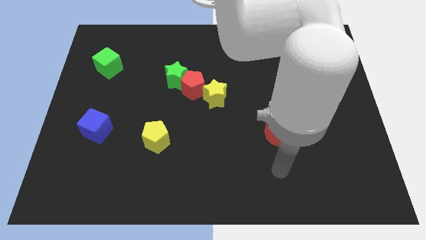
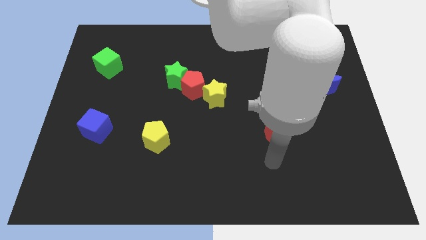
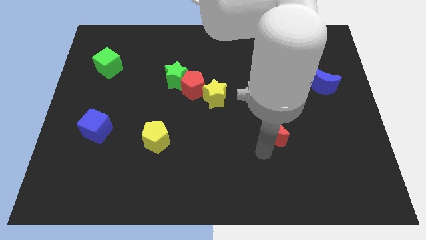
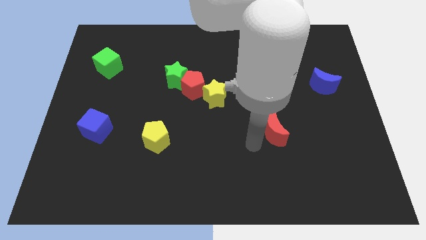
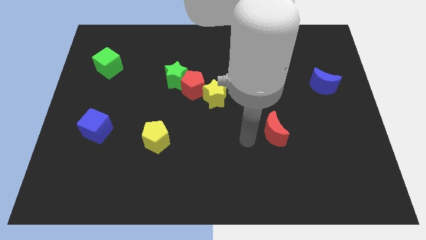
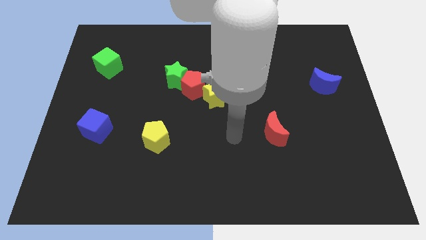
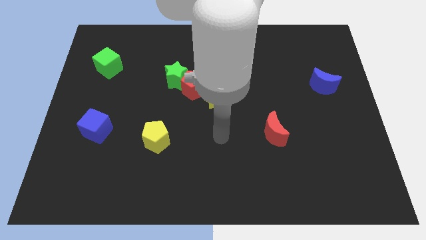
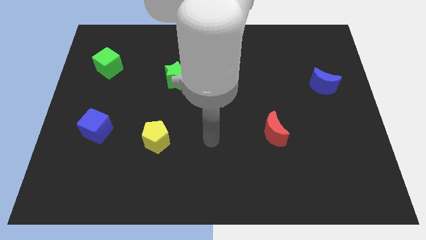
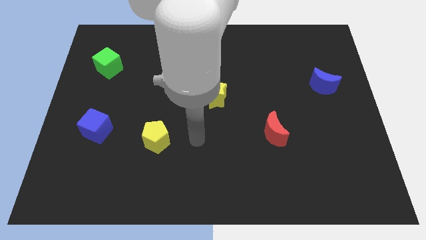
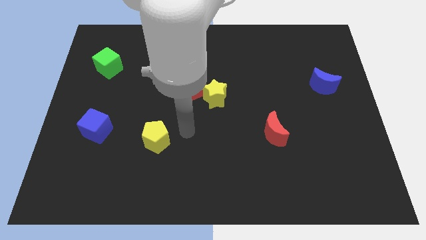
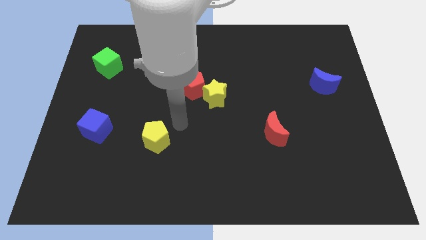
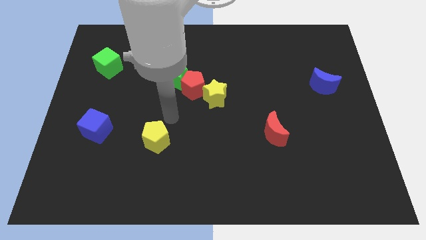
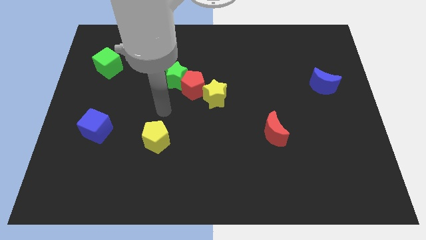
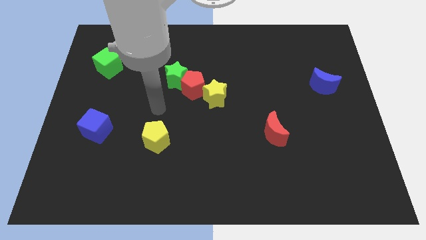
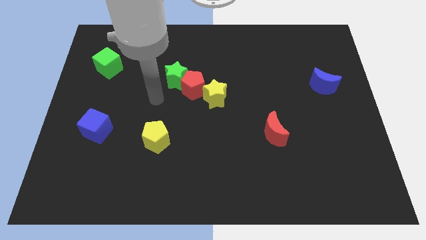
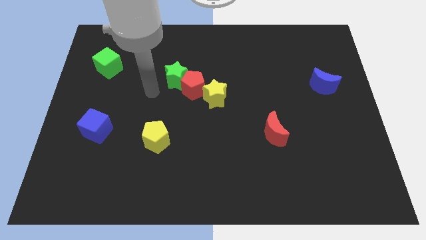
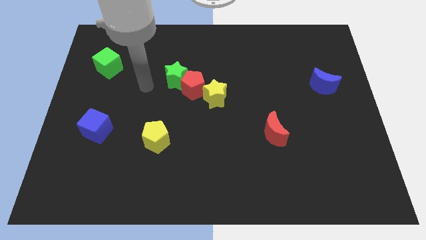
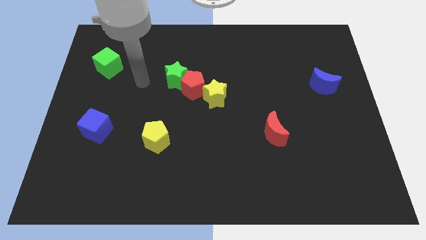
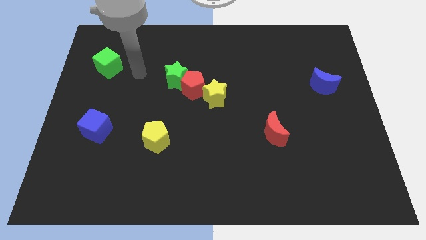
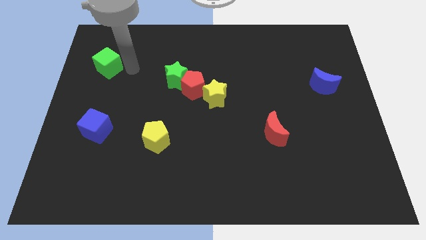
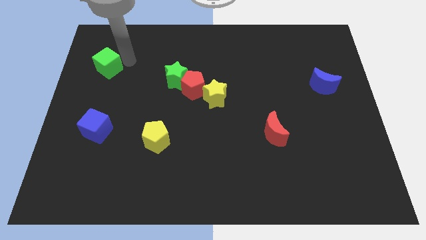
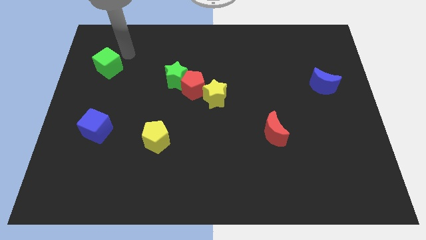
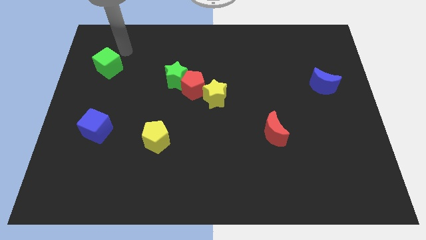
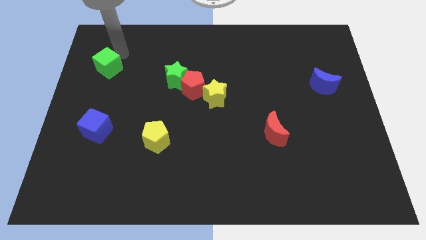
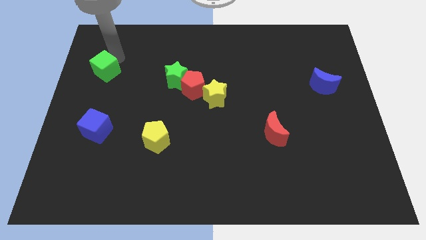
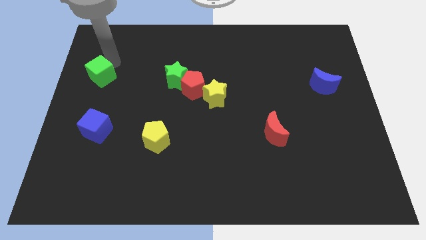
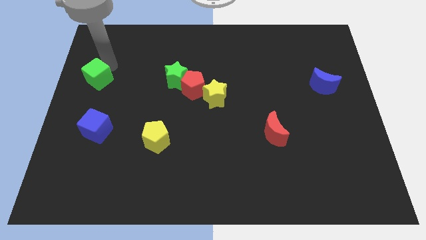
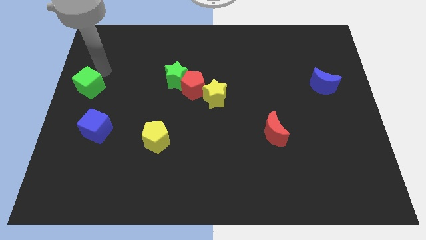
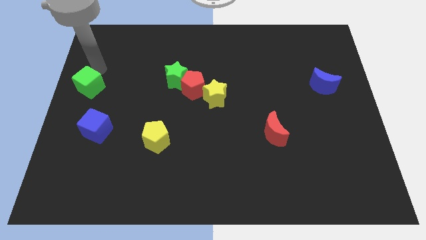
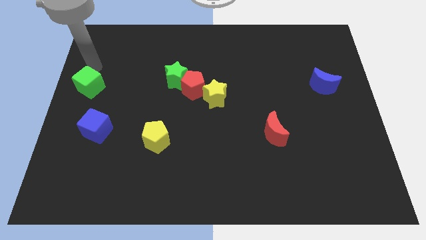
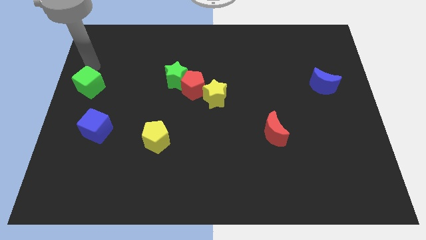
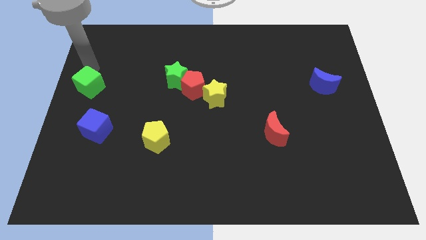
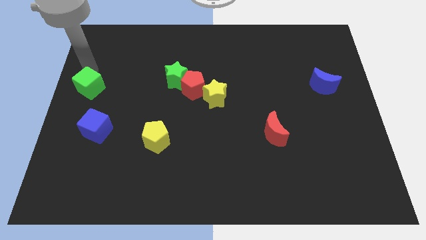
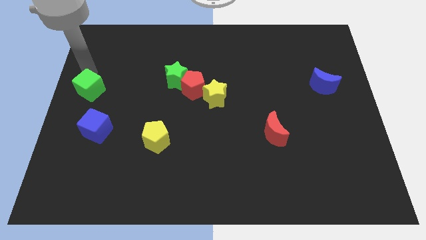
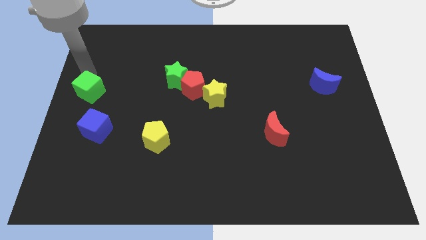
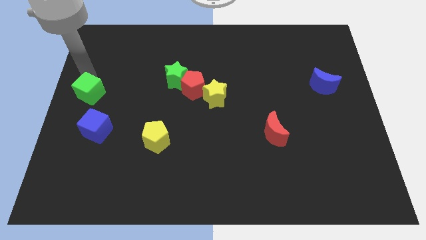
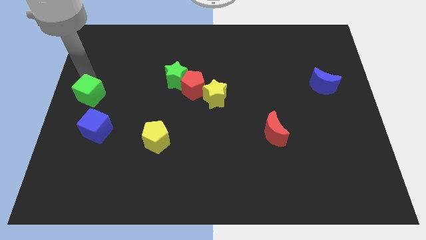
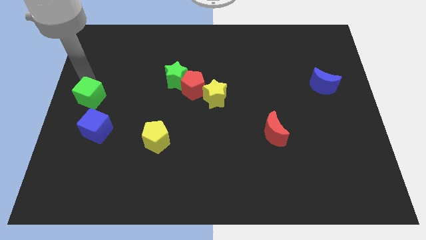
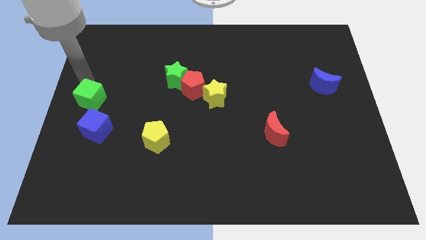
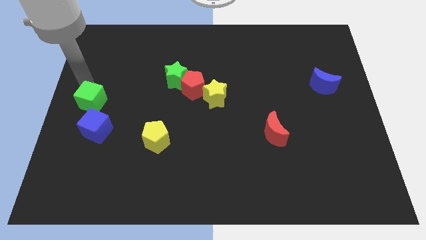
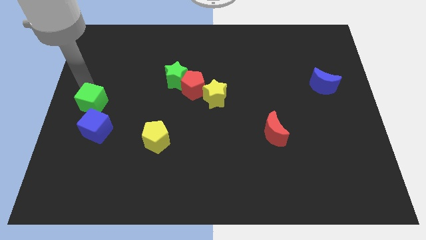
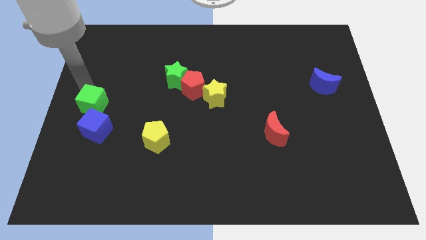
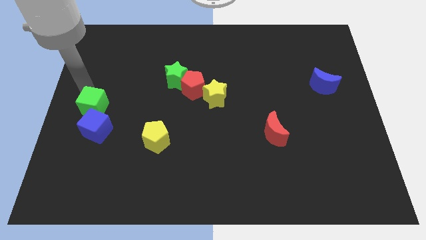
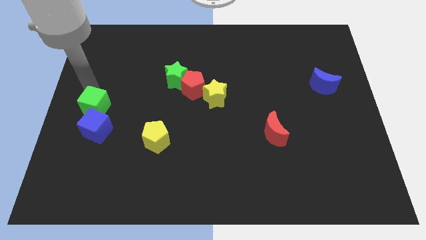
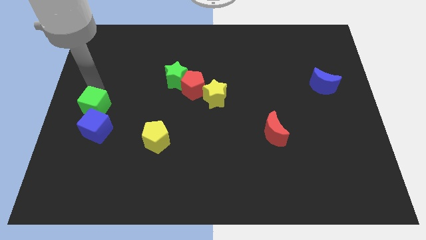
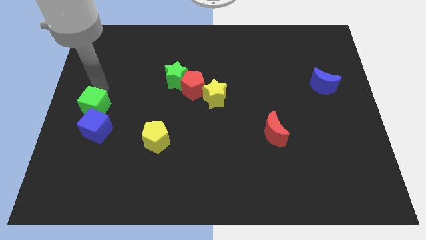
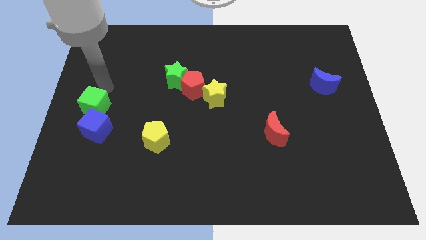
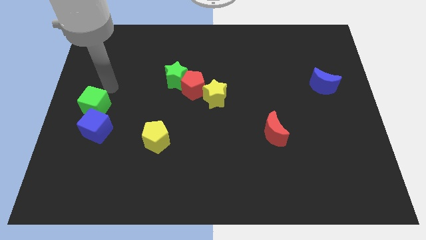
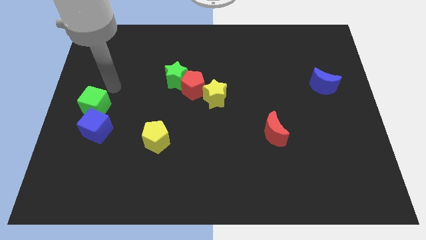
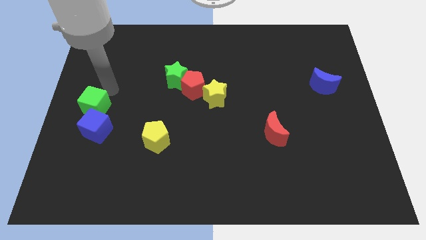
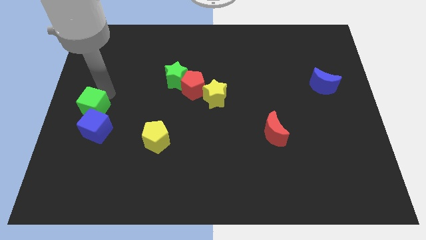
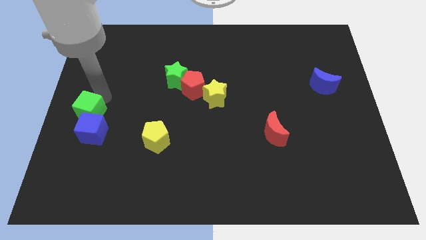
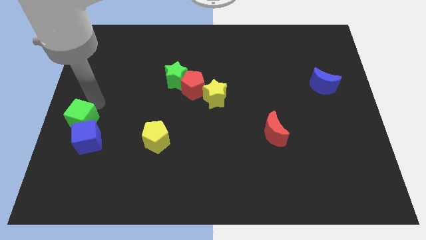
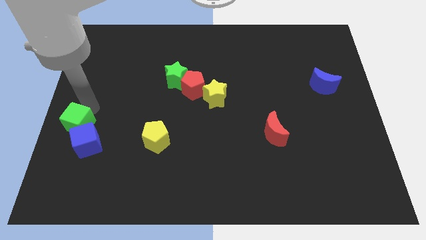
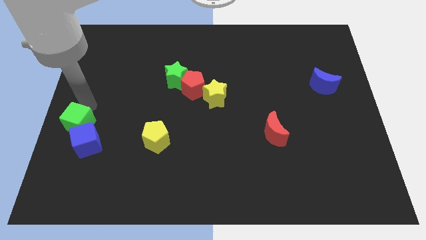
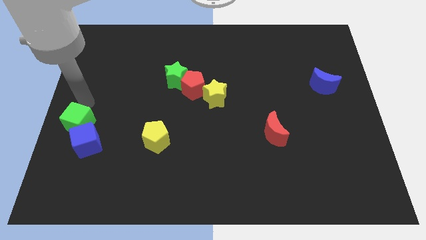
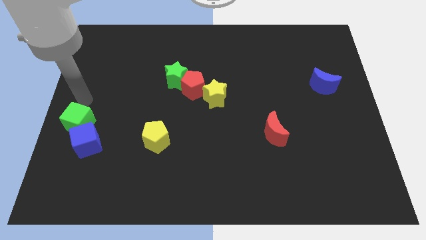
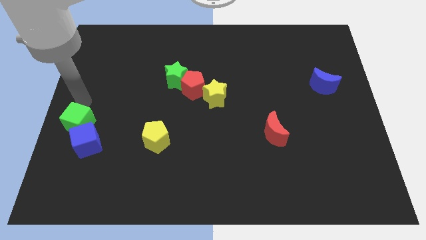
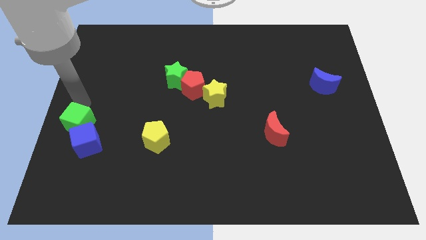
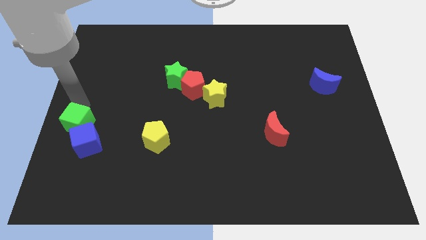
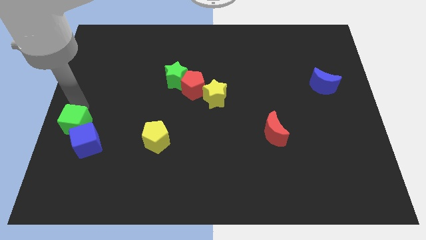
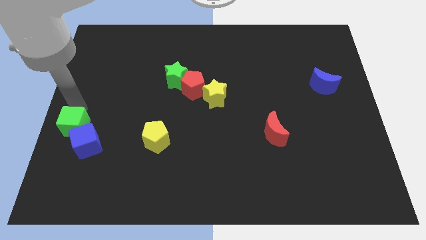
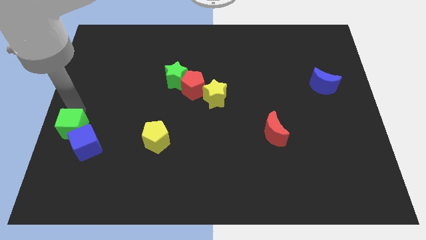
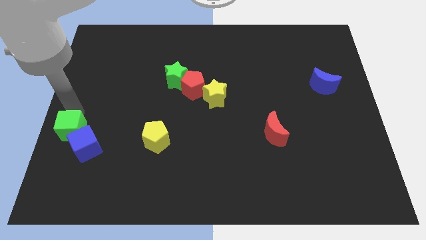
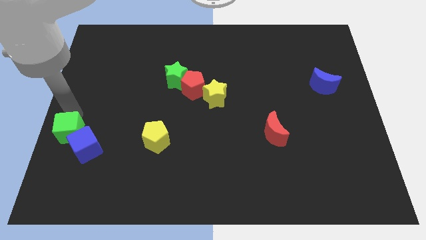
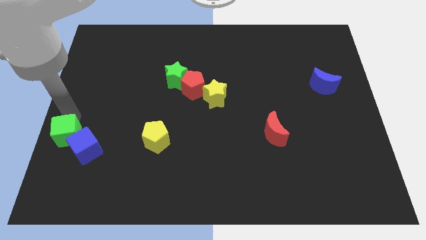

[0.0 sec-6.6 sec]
move the green cube downwards

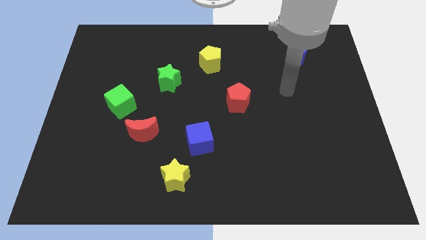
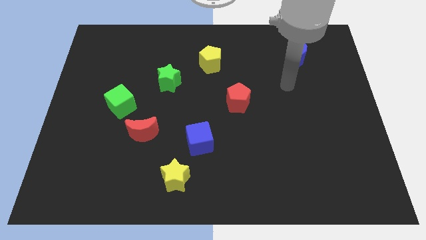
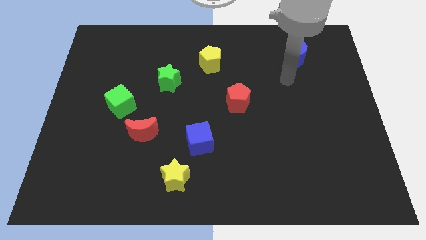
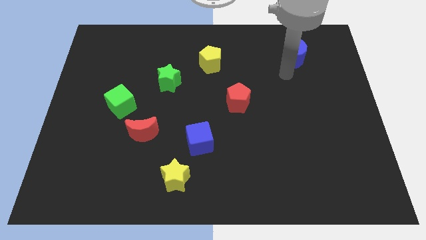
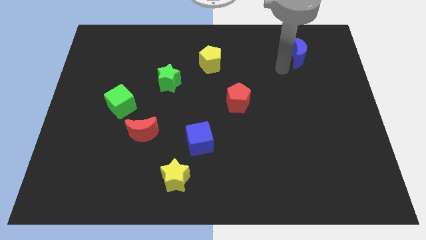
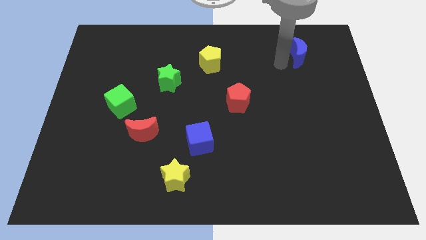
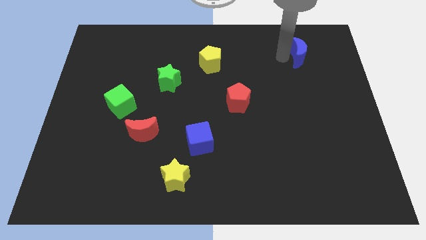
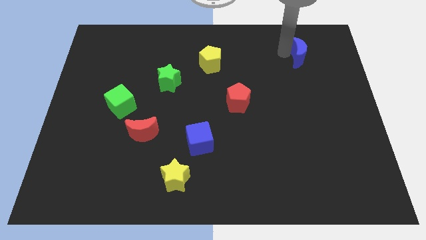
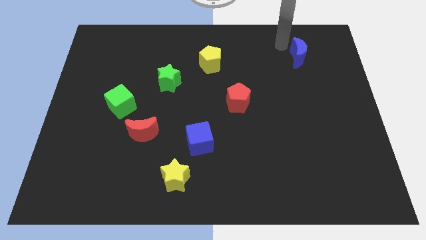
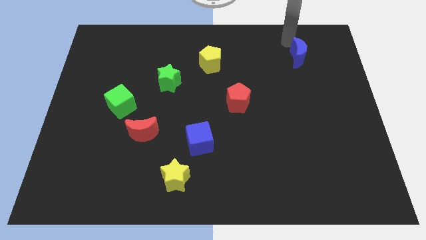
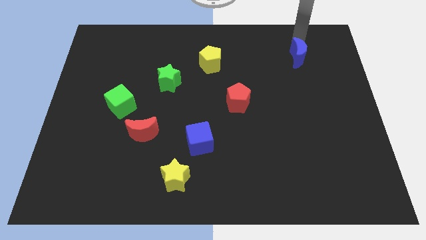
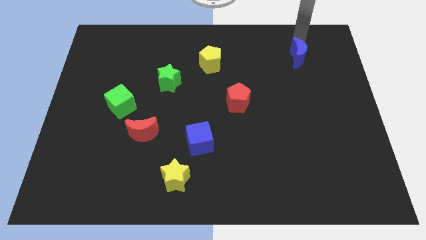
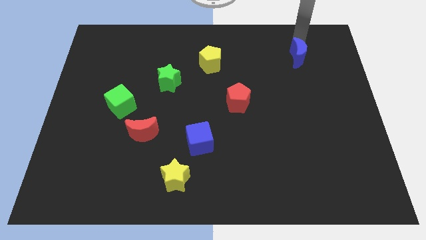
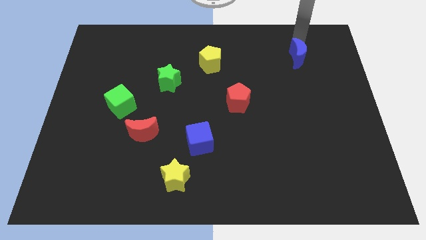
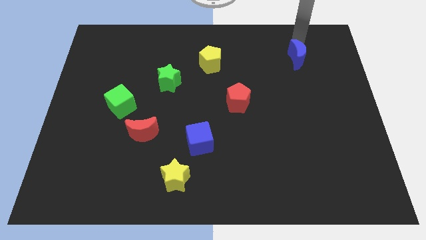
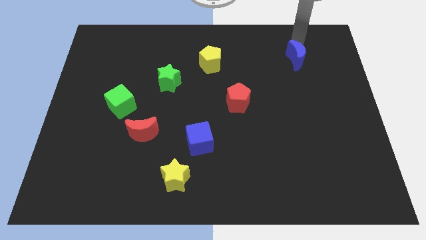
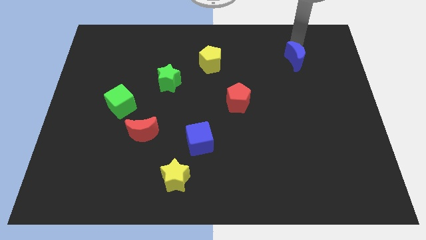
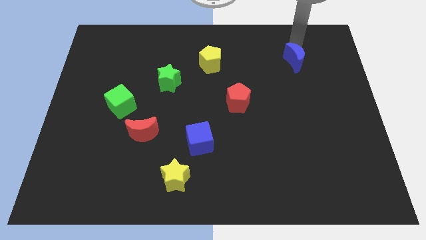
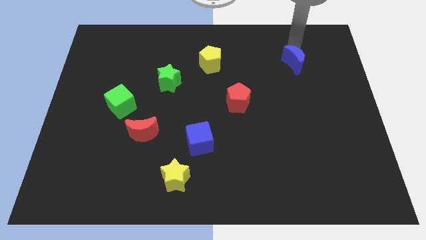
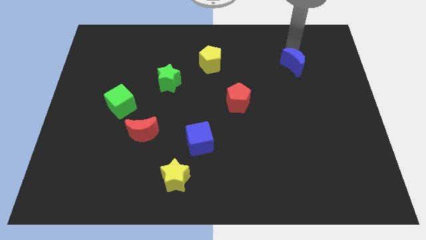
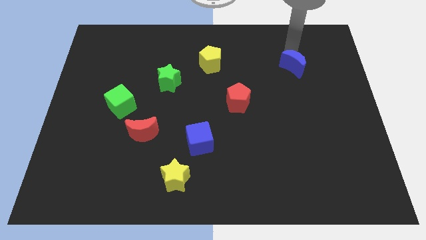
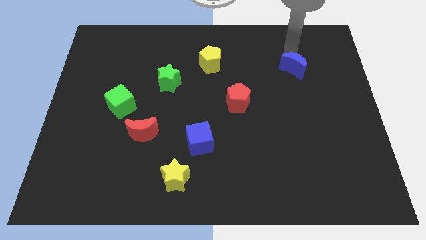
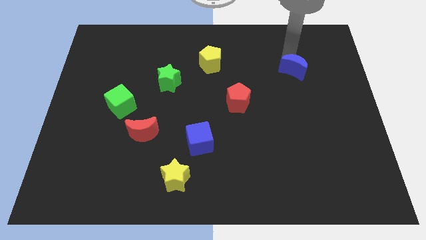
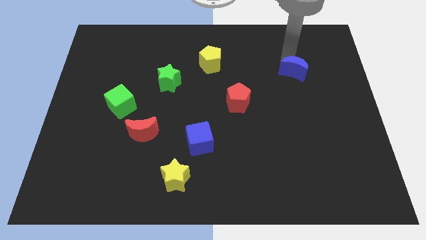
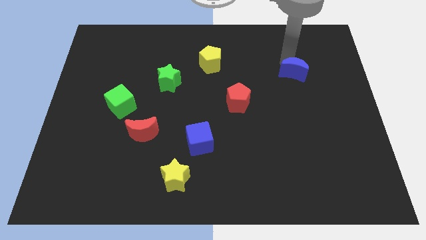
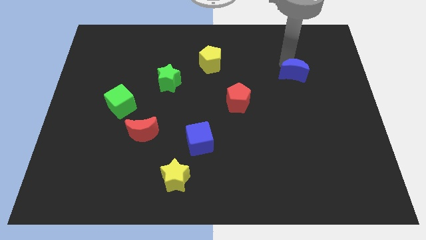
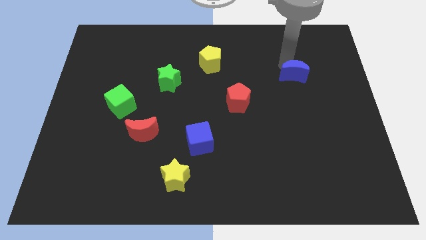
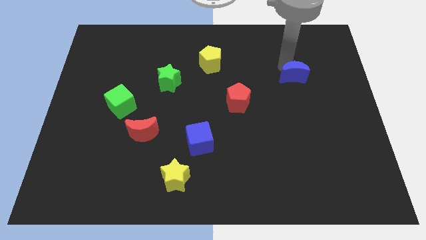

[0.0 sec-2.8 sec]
slide the blue moon down slightly
